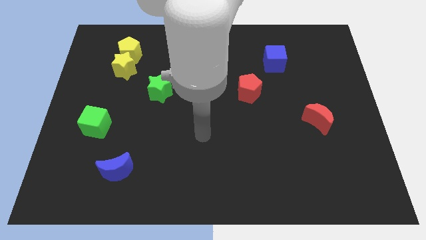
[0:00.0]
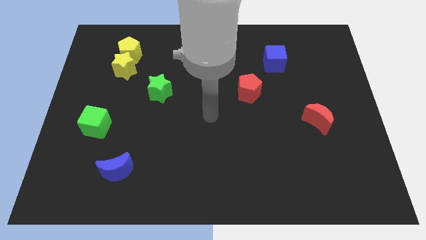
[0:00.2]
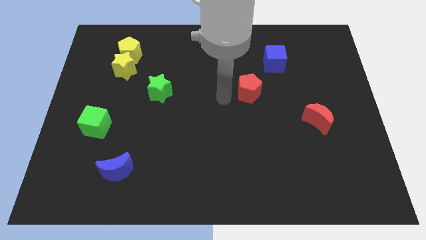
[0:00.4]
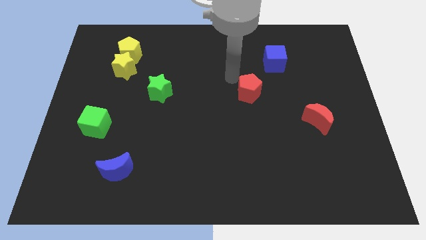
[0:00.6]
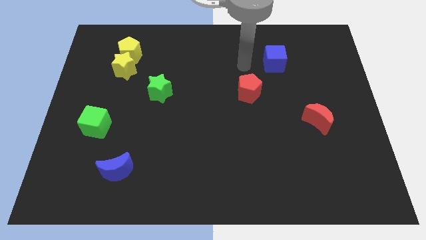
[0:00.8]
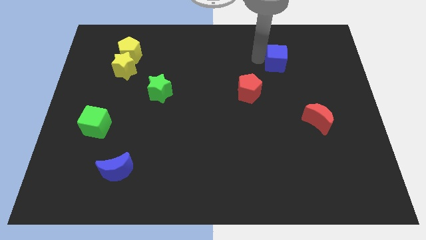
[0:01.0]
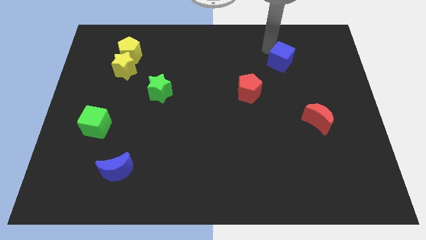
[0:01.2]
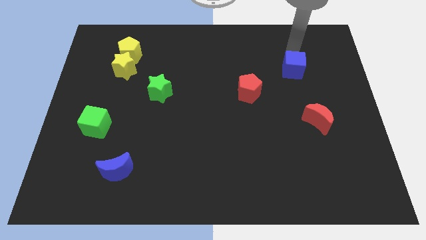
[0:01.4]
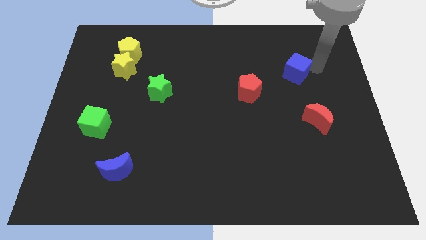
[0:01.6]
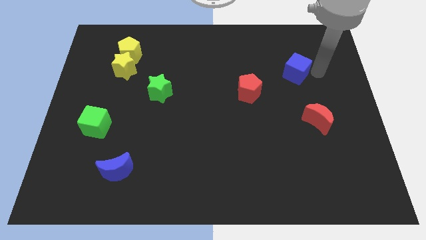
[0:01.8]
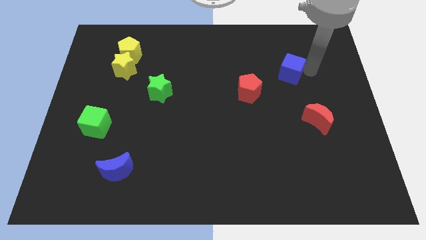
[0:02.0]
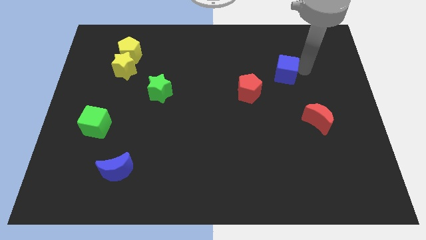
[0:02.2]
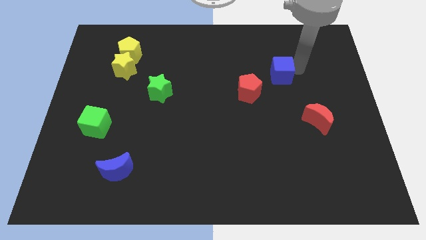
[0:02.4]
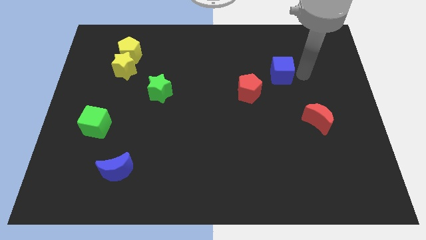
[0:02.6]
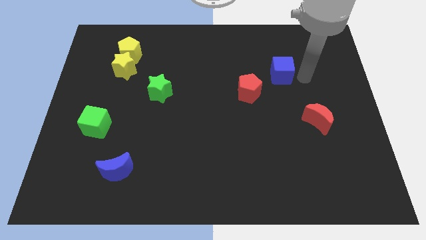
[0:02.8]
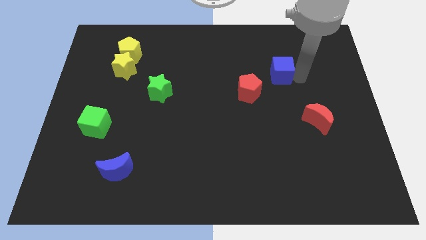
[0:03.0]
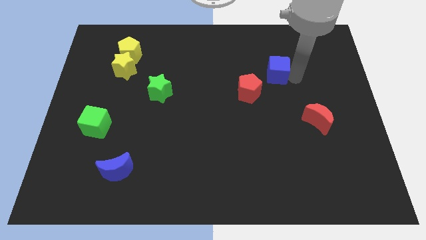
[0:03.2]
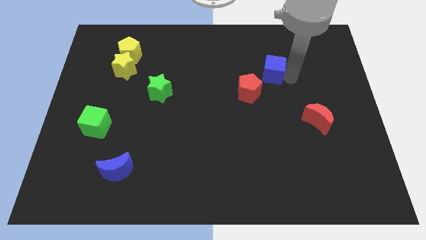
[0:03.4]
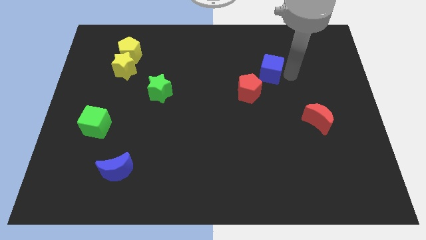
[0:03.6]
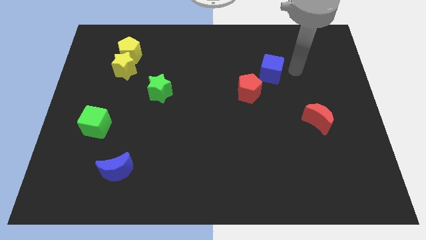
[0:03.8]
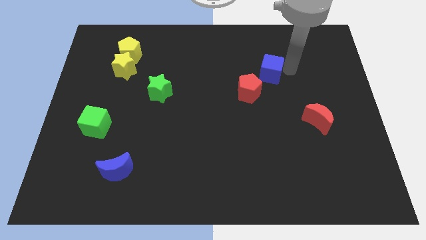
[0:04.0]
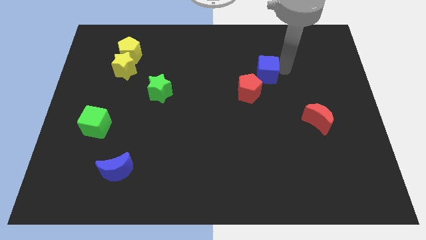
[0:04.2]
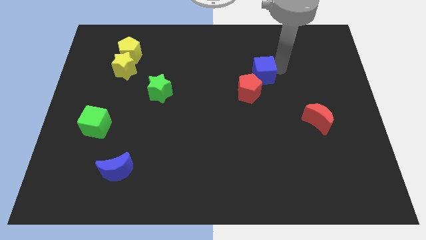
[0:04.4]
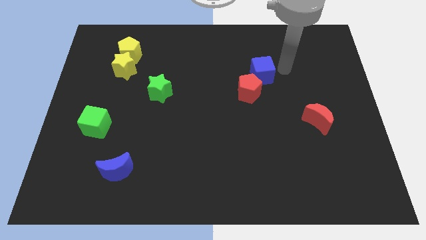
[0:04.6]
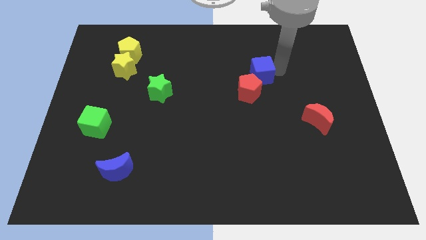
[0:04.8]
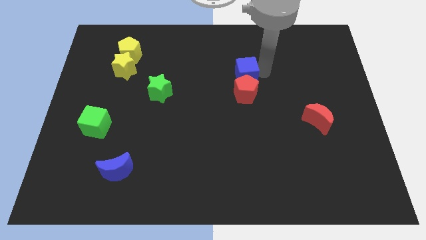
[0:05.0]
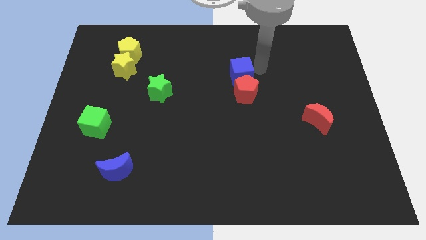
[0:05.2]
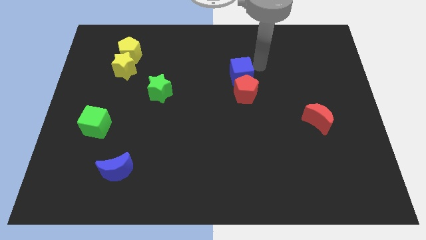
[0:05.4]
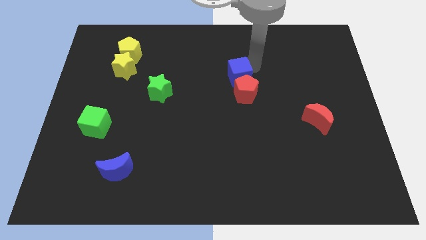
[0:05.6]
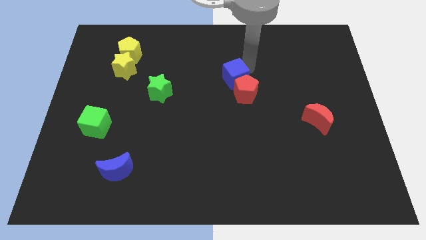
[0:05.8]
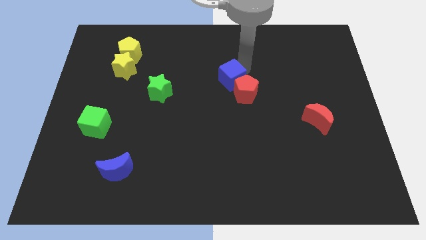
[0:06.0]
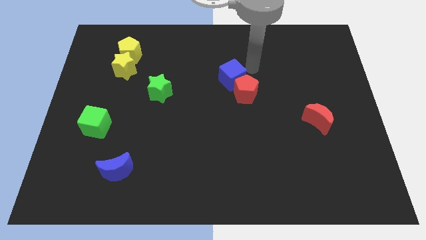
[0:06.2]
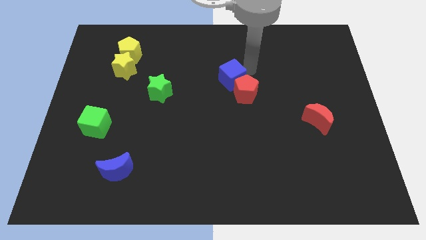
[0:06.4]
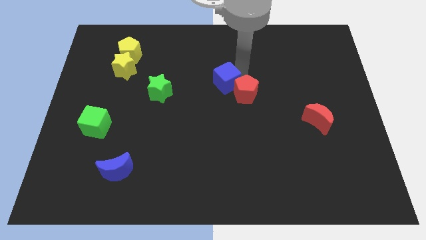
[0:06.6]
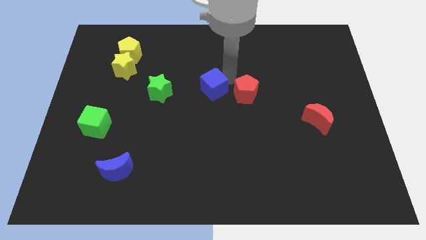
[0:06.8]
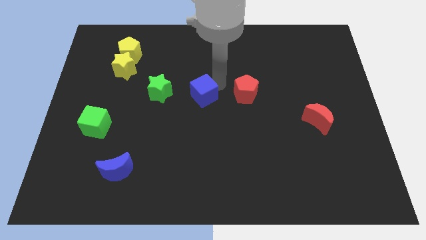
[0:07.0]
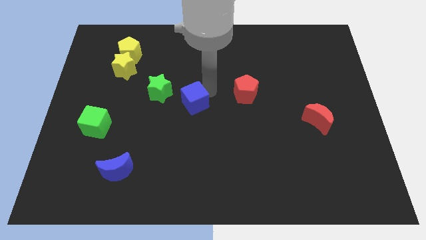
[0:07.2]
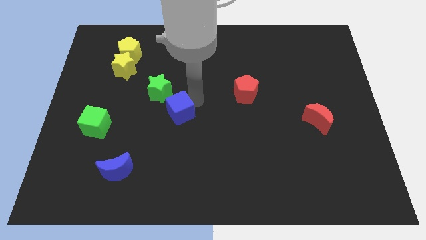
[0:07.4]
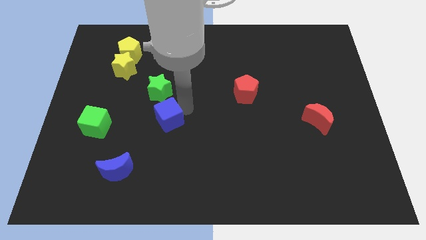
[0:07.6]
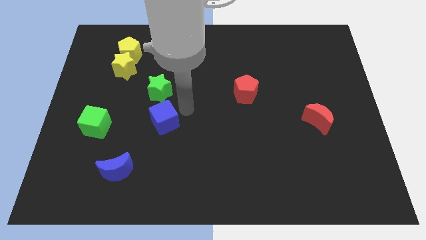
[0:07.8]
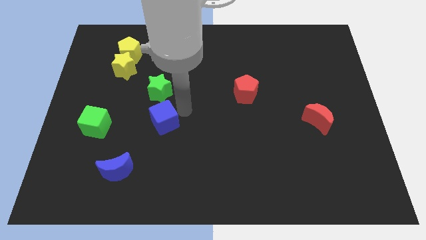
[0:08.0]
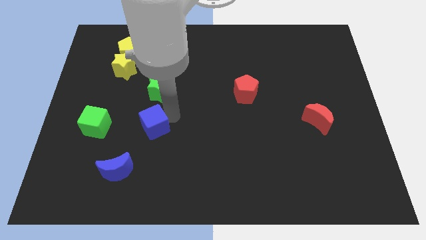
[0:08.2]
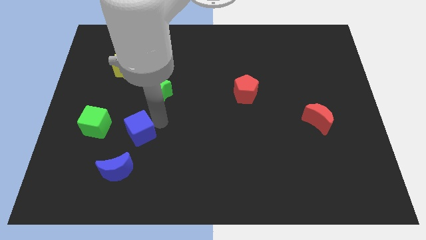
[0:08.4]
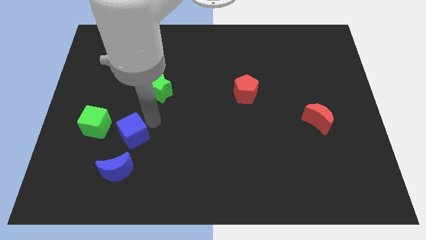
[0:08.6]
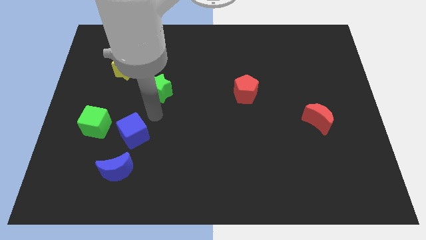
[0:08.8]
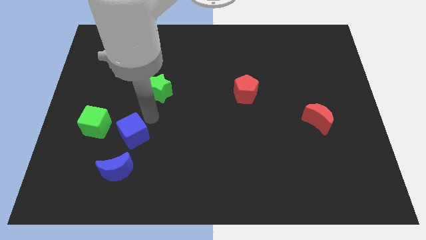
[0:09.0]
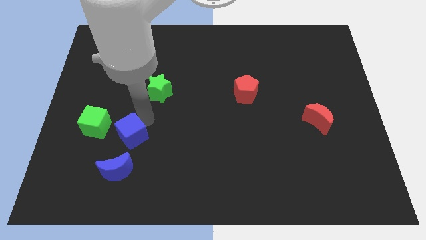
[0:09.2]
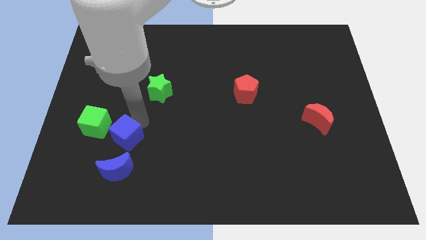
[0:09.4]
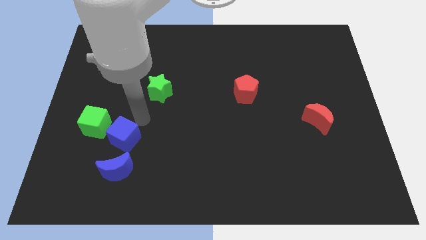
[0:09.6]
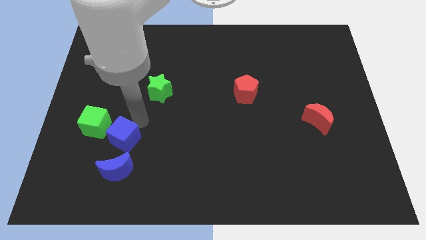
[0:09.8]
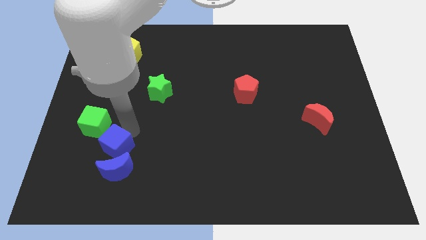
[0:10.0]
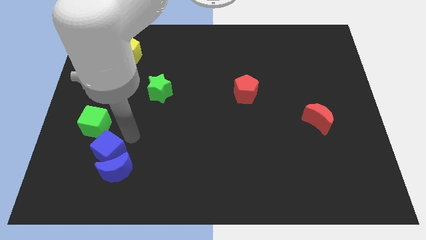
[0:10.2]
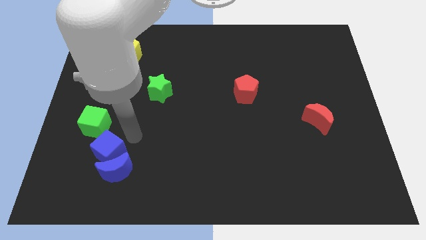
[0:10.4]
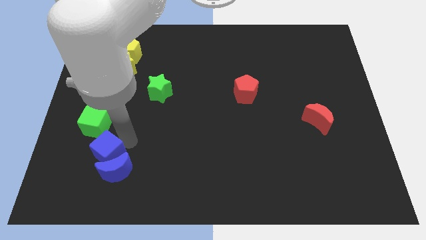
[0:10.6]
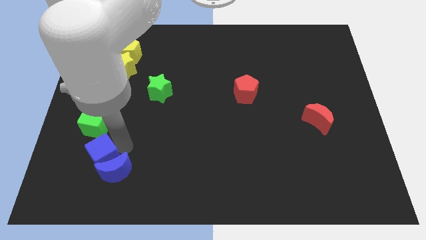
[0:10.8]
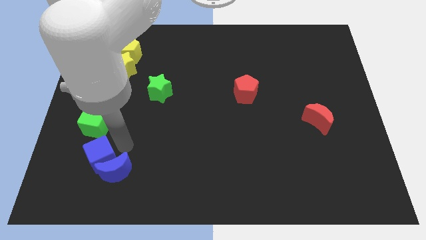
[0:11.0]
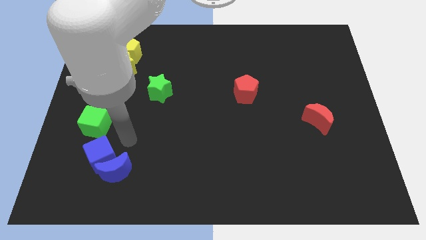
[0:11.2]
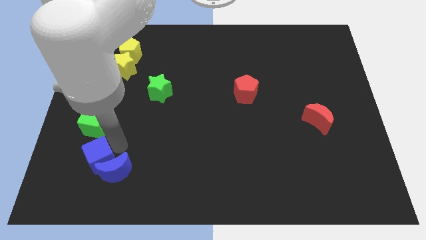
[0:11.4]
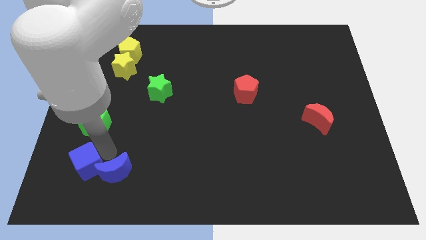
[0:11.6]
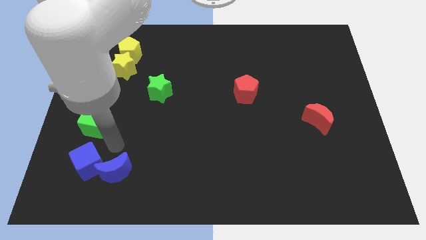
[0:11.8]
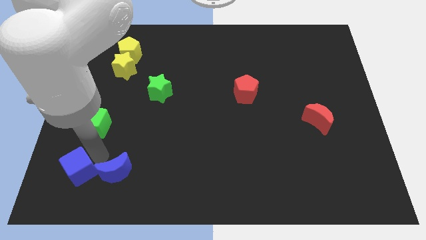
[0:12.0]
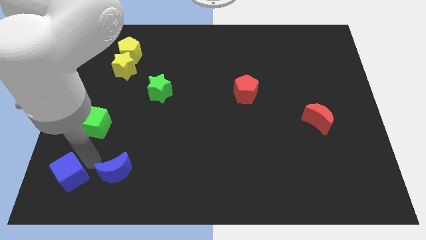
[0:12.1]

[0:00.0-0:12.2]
move the blue cube to the bottom left of the board
